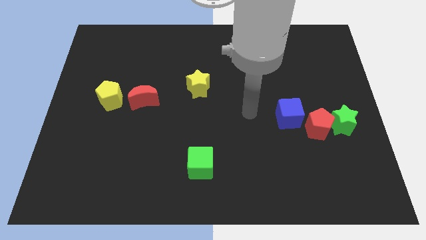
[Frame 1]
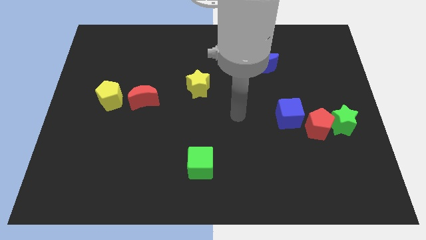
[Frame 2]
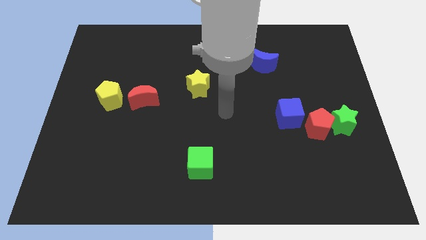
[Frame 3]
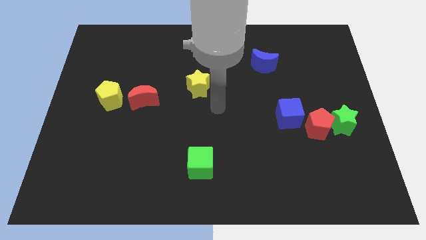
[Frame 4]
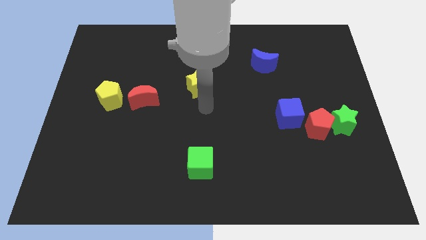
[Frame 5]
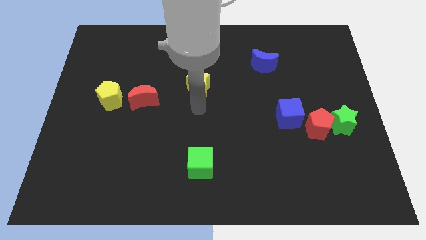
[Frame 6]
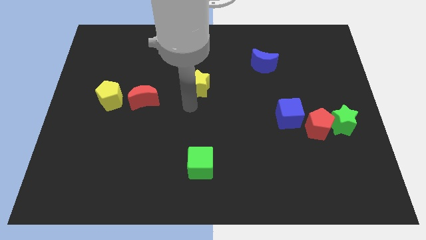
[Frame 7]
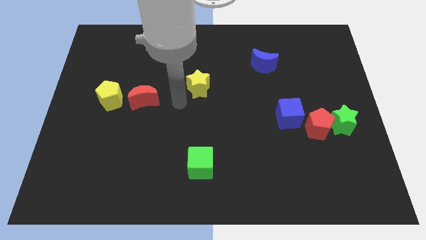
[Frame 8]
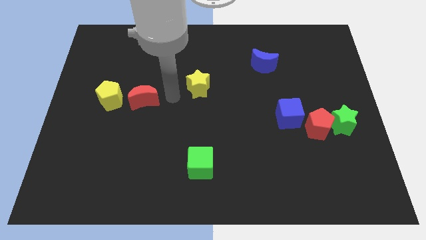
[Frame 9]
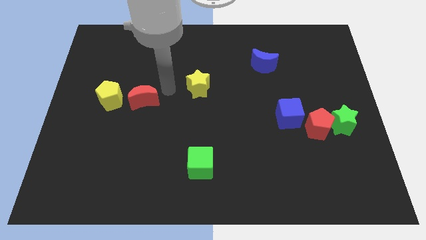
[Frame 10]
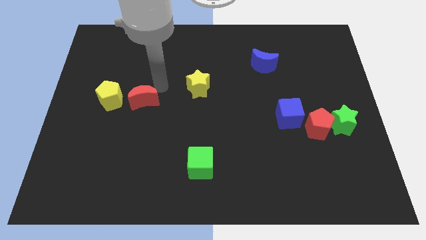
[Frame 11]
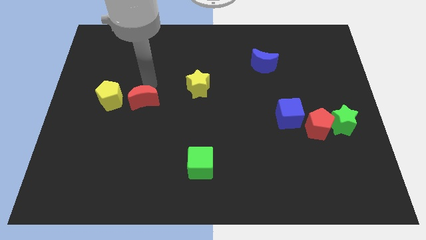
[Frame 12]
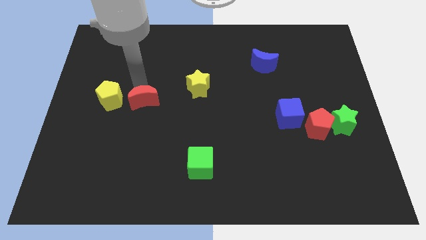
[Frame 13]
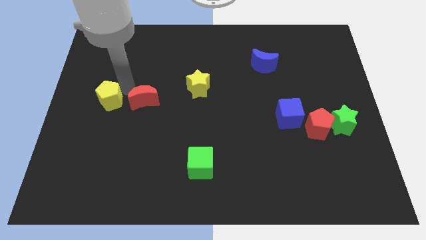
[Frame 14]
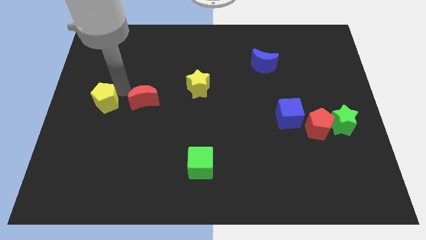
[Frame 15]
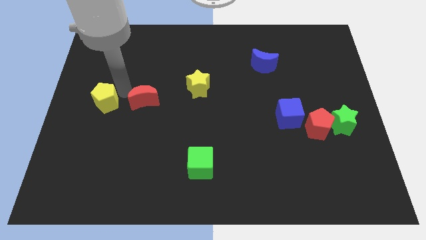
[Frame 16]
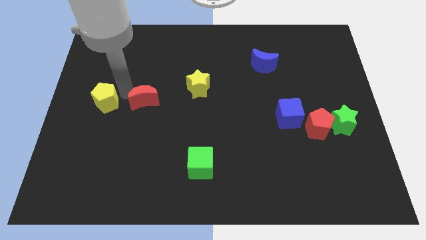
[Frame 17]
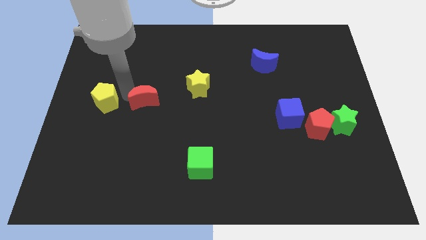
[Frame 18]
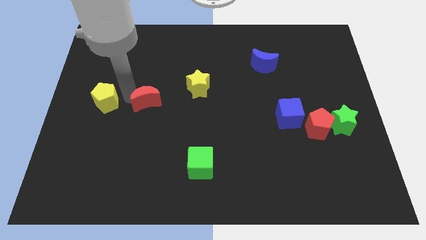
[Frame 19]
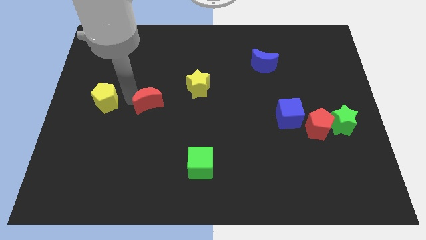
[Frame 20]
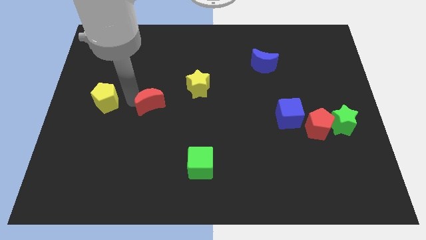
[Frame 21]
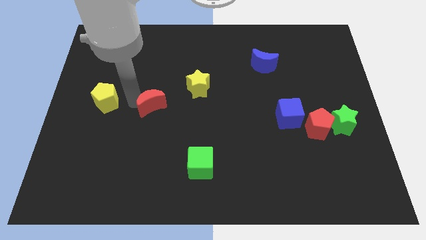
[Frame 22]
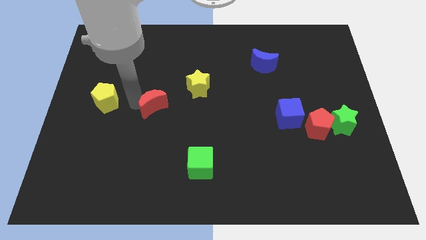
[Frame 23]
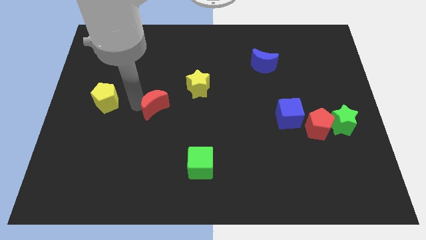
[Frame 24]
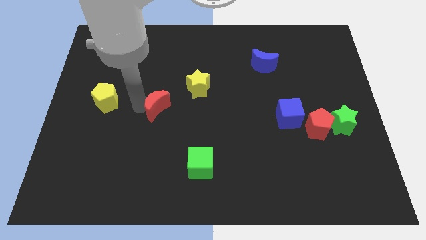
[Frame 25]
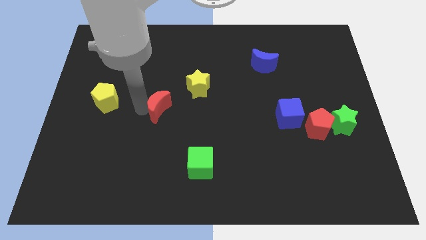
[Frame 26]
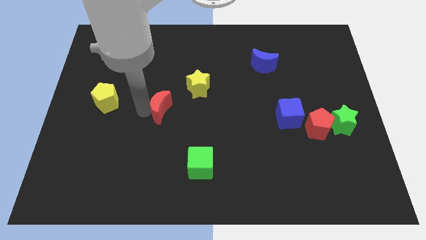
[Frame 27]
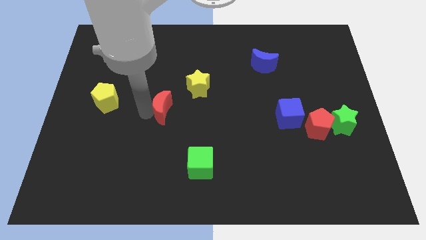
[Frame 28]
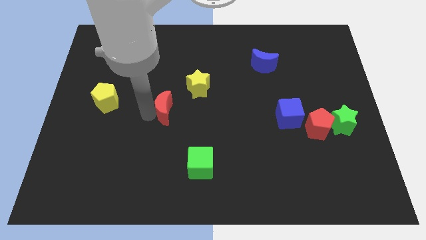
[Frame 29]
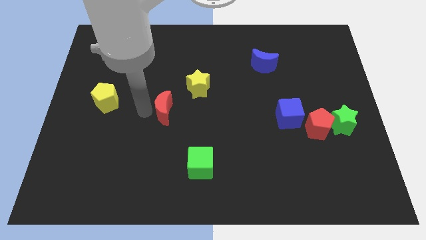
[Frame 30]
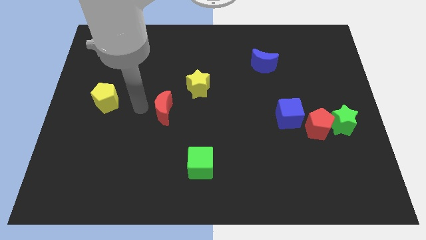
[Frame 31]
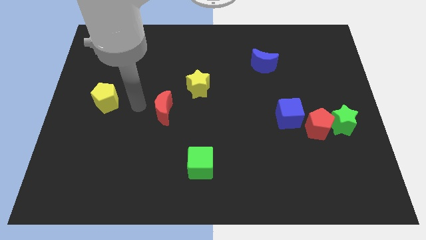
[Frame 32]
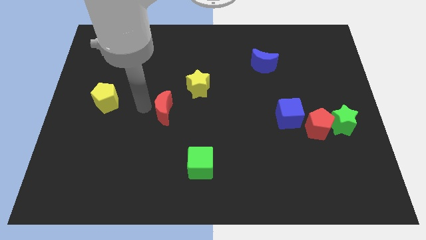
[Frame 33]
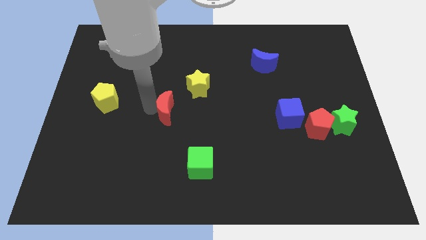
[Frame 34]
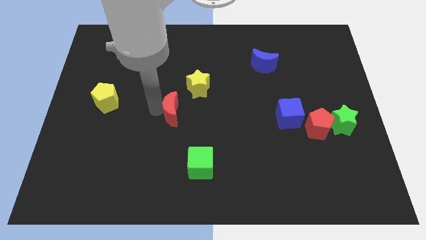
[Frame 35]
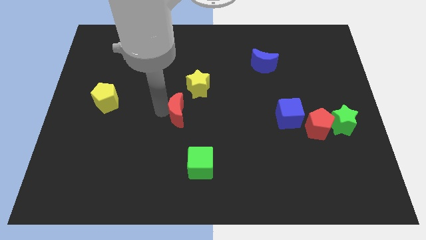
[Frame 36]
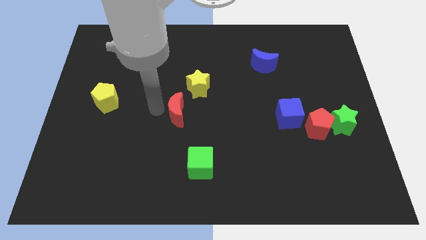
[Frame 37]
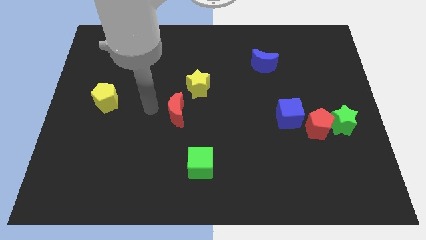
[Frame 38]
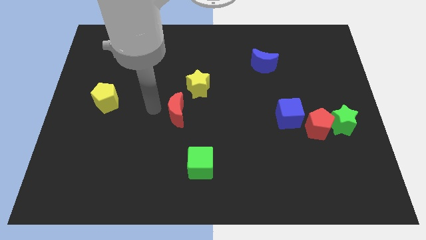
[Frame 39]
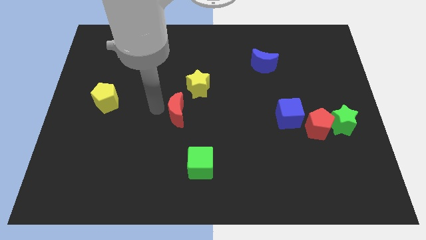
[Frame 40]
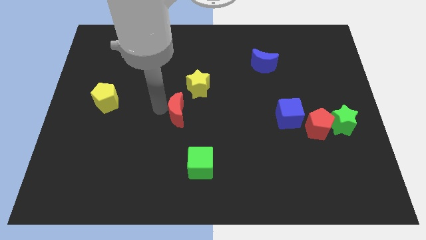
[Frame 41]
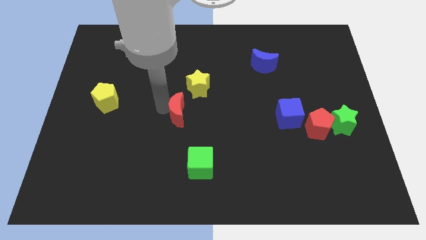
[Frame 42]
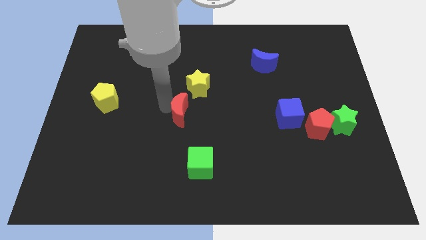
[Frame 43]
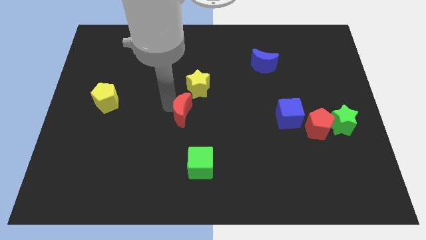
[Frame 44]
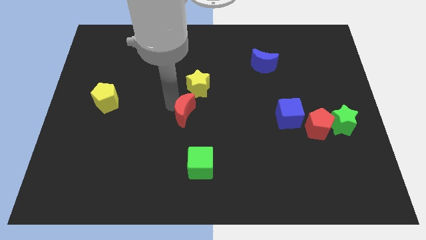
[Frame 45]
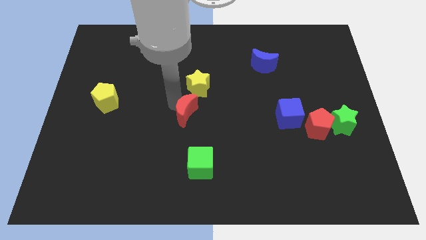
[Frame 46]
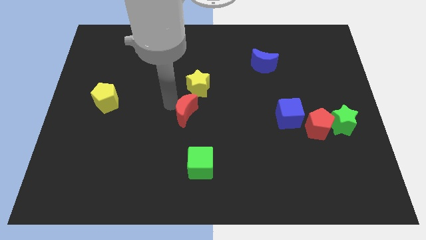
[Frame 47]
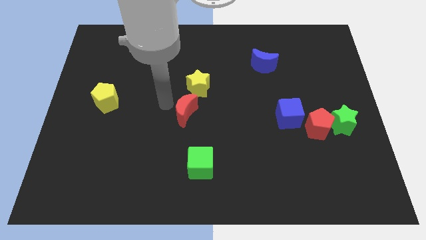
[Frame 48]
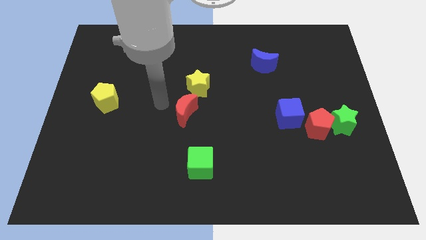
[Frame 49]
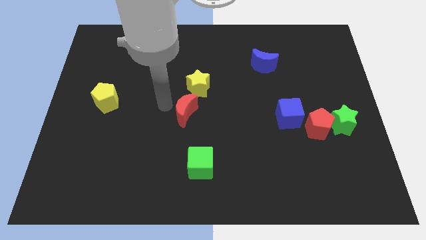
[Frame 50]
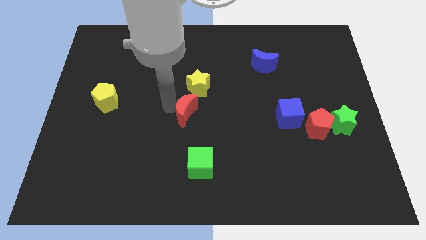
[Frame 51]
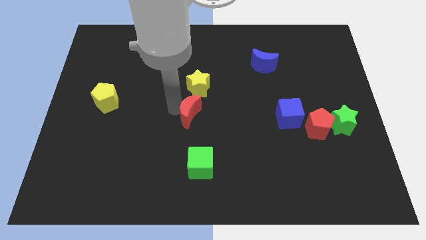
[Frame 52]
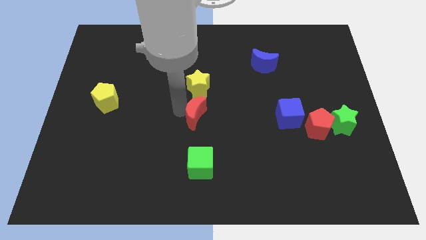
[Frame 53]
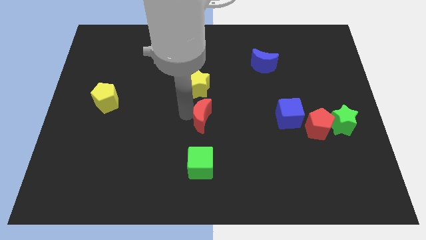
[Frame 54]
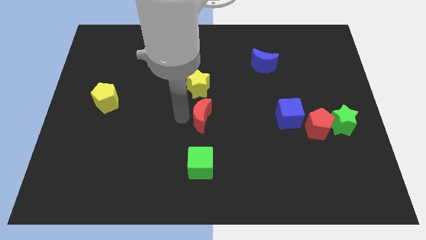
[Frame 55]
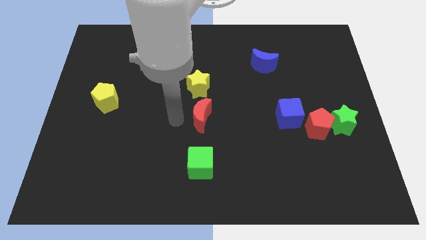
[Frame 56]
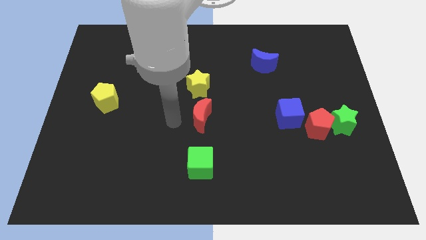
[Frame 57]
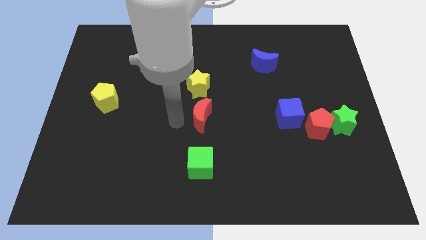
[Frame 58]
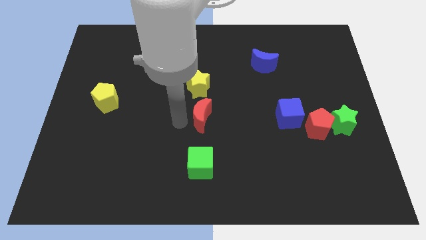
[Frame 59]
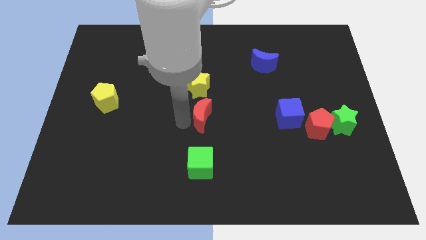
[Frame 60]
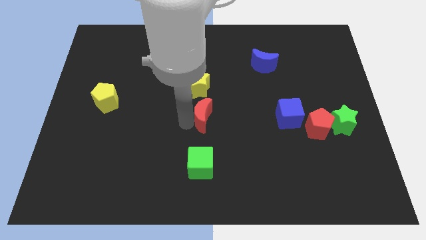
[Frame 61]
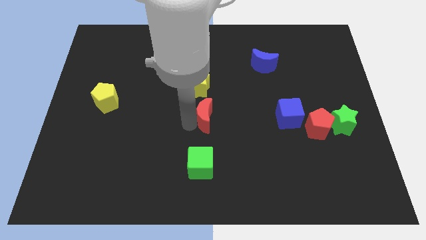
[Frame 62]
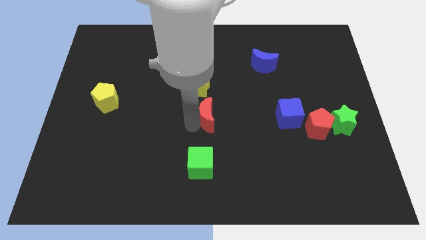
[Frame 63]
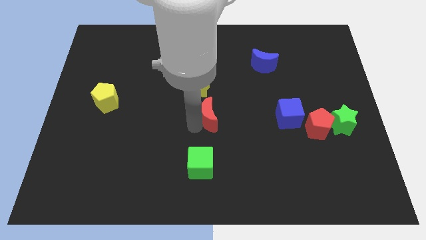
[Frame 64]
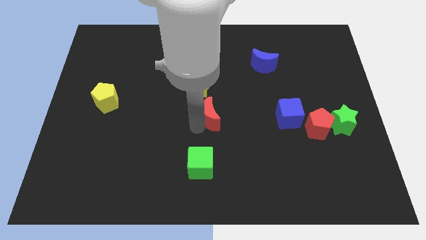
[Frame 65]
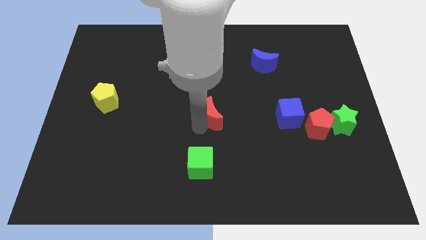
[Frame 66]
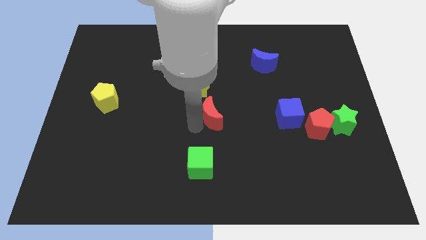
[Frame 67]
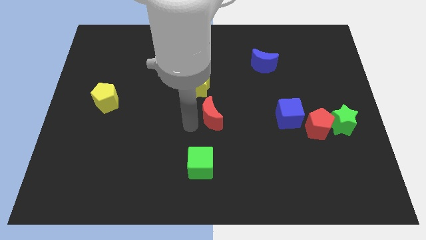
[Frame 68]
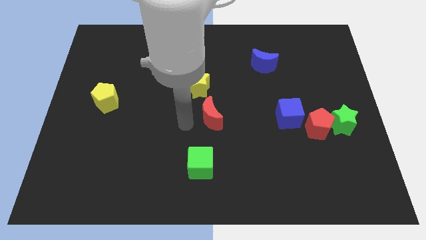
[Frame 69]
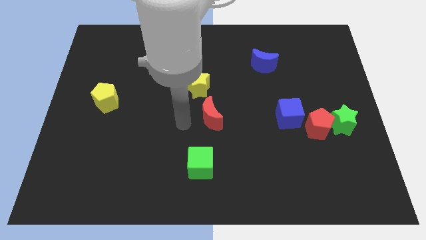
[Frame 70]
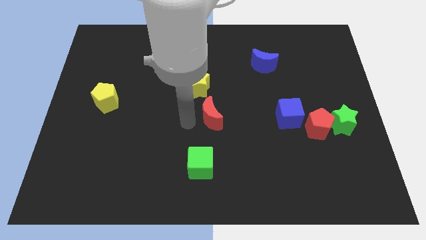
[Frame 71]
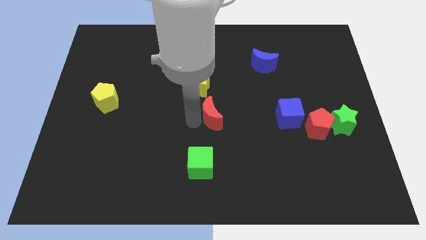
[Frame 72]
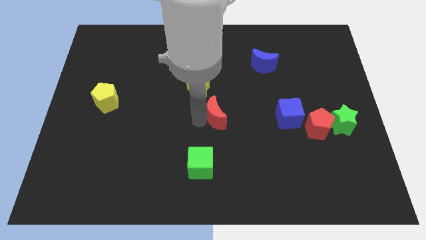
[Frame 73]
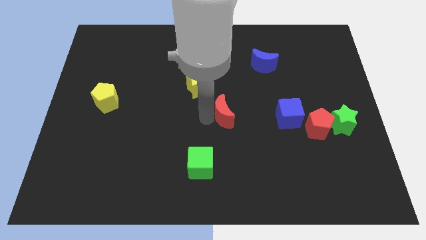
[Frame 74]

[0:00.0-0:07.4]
push the red moon just left of the blue cube

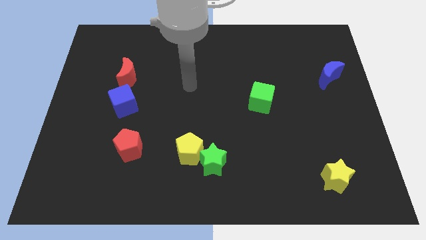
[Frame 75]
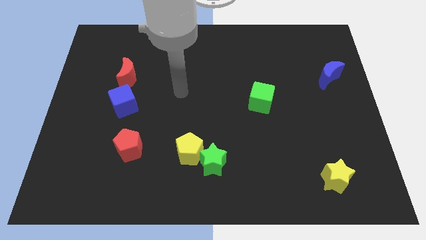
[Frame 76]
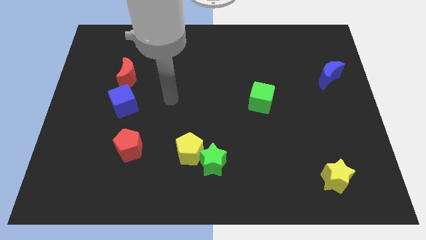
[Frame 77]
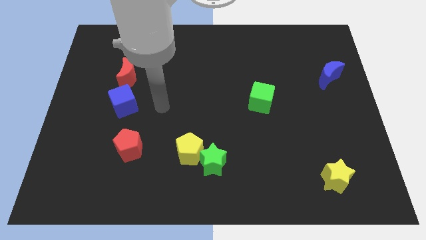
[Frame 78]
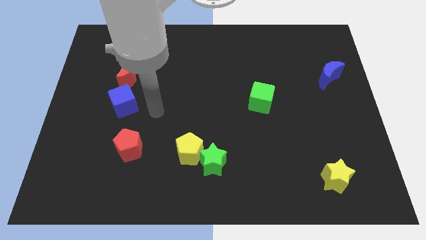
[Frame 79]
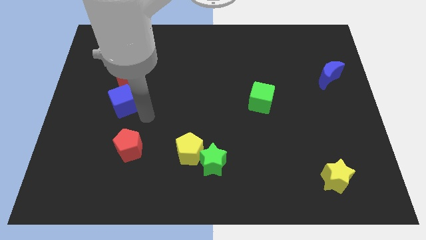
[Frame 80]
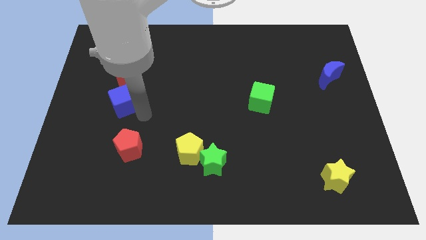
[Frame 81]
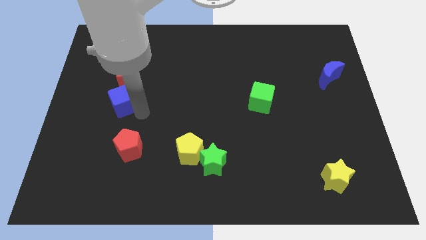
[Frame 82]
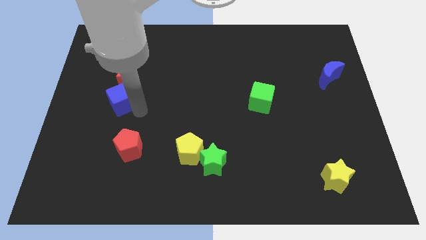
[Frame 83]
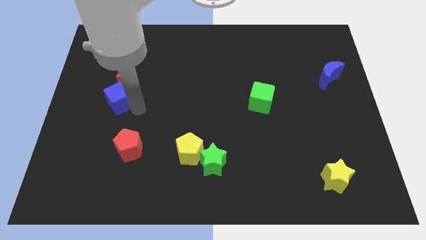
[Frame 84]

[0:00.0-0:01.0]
move the blue cube to the bottom left of the red moon
